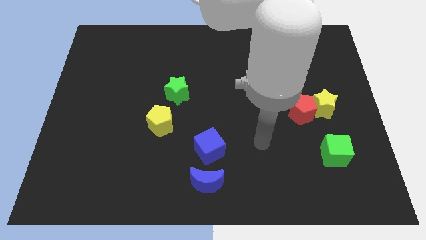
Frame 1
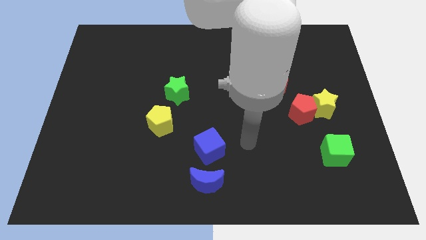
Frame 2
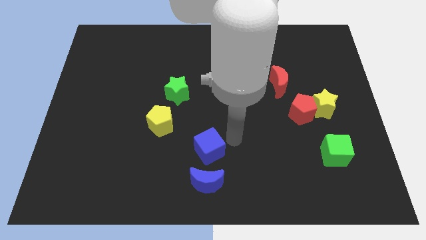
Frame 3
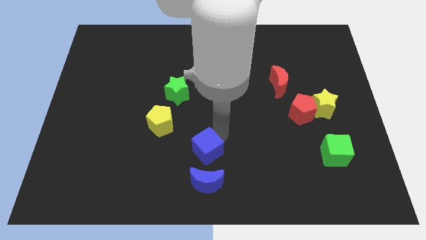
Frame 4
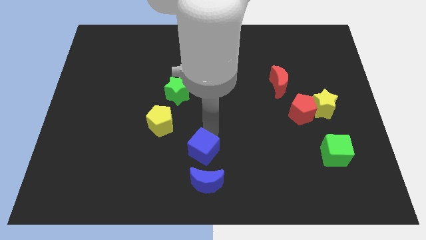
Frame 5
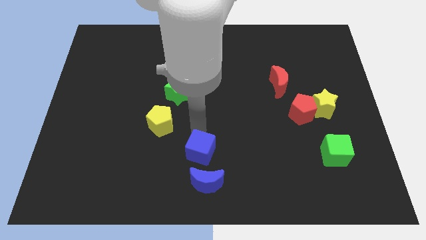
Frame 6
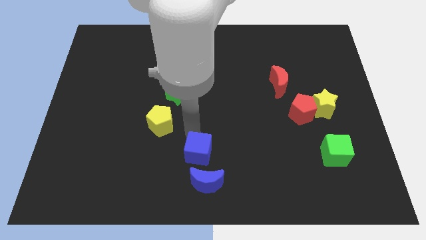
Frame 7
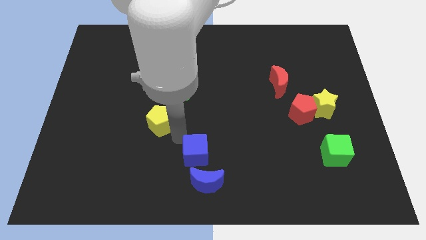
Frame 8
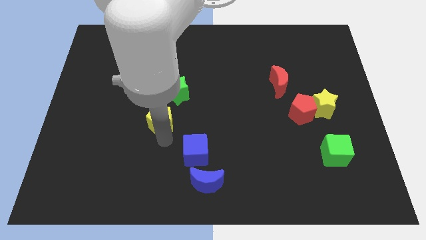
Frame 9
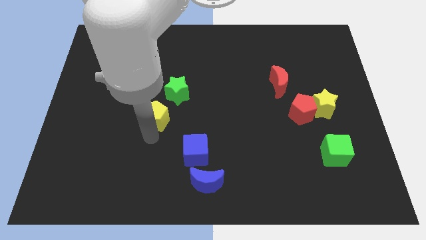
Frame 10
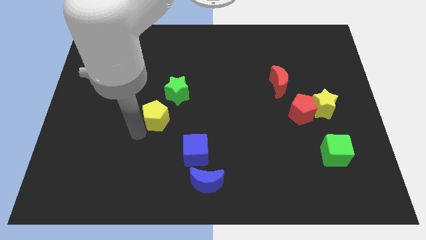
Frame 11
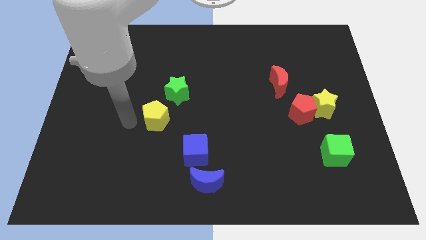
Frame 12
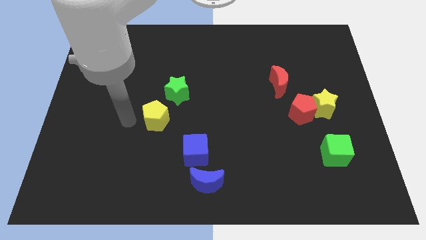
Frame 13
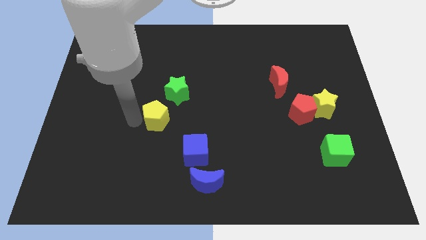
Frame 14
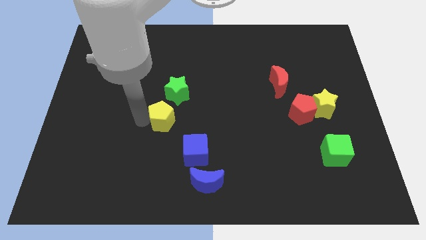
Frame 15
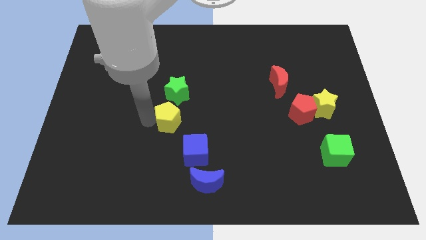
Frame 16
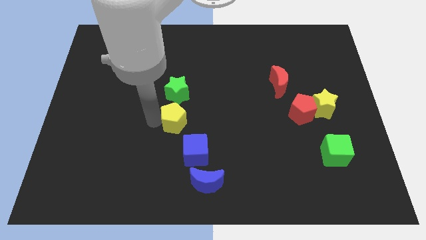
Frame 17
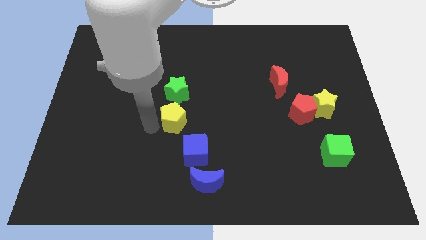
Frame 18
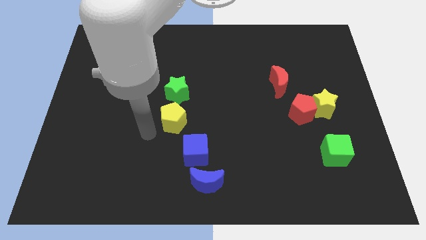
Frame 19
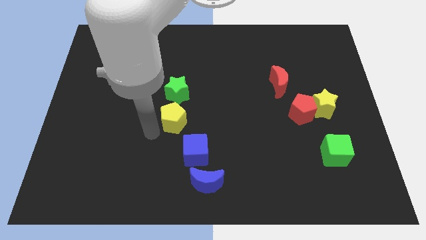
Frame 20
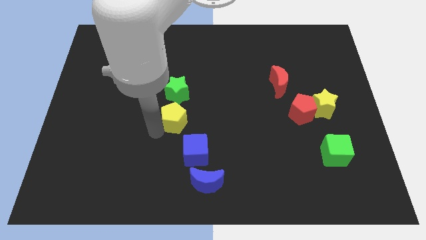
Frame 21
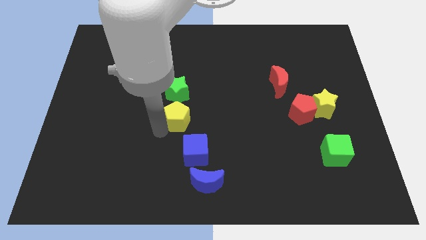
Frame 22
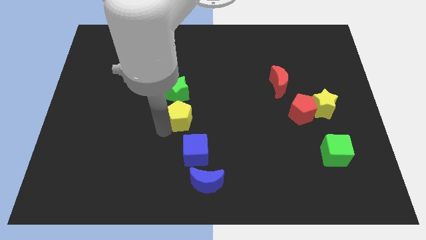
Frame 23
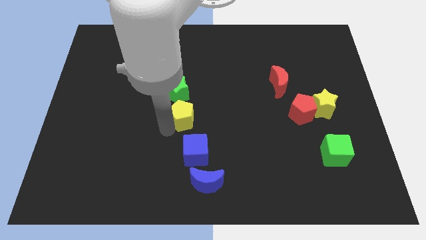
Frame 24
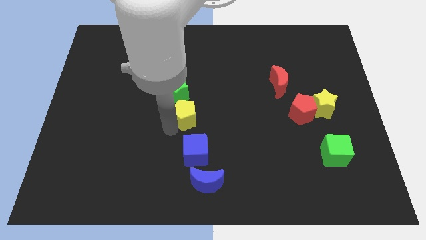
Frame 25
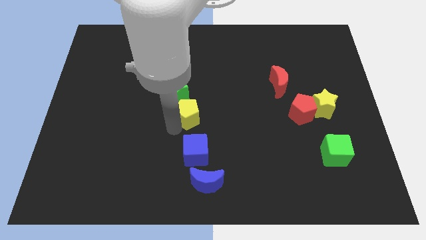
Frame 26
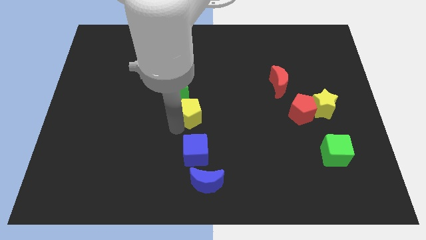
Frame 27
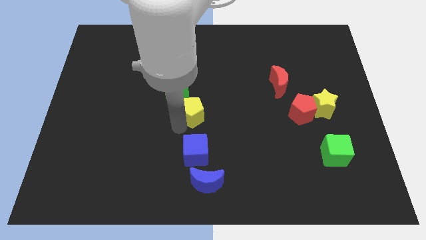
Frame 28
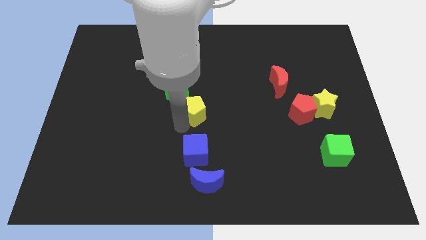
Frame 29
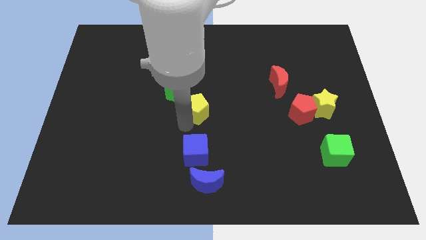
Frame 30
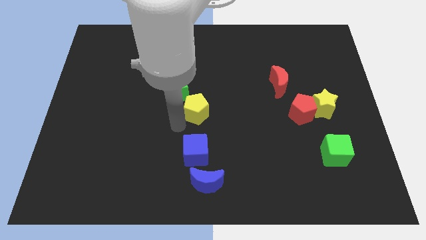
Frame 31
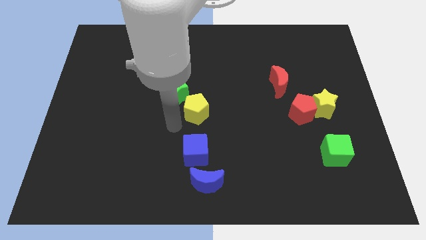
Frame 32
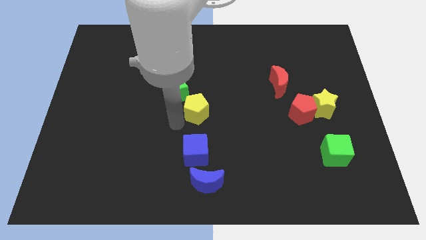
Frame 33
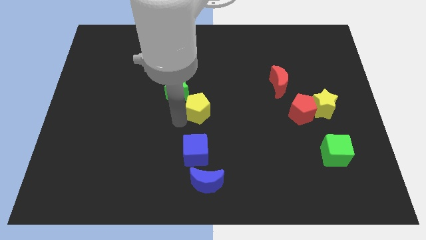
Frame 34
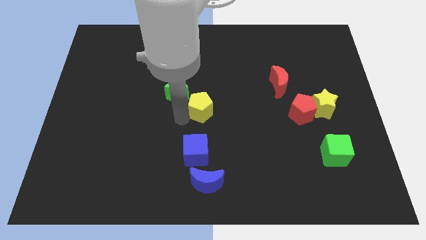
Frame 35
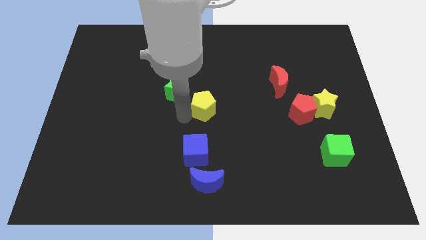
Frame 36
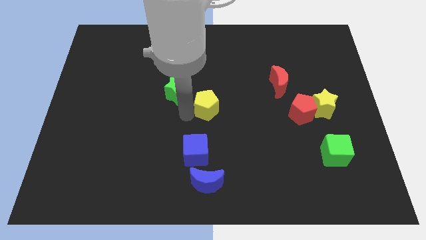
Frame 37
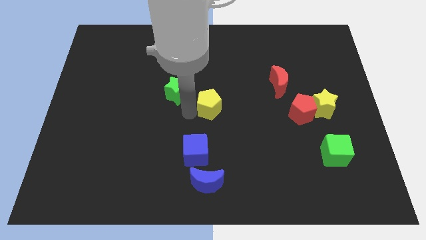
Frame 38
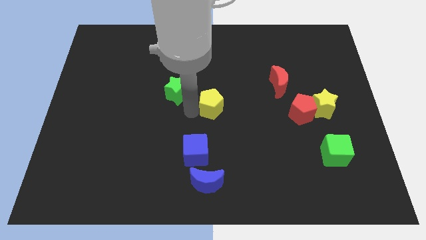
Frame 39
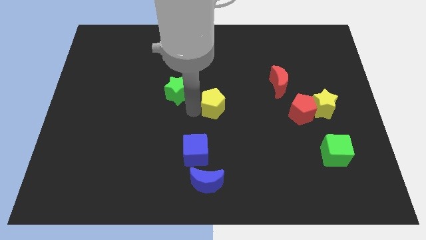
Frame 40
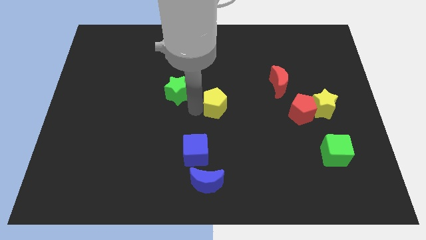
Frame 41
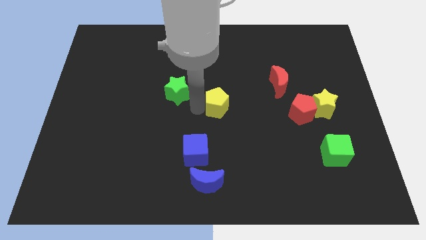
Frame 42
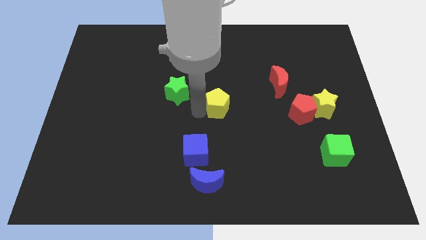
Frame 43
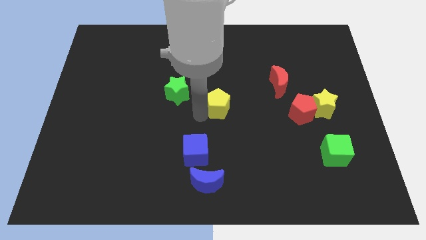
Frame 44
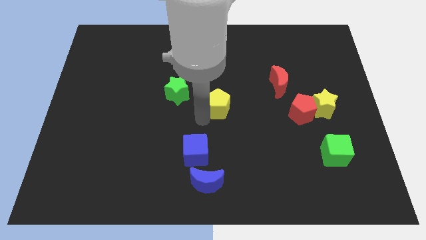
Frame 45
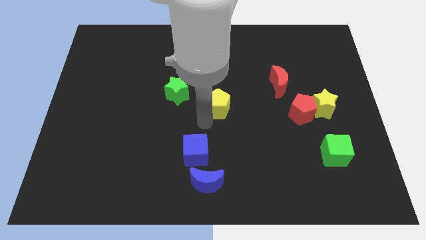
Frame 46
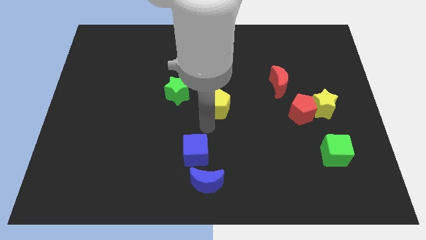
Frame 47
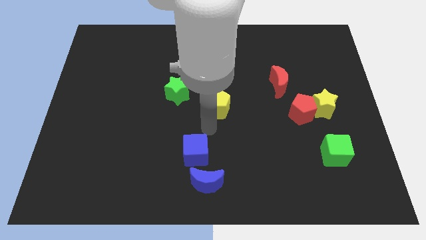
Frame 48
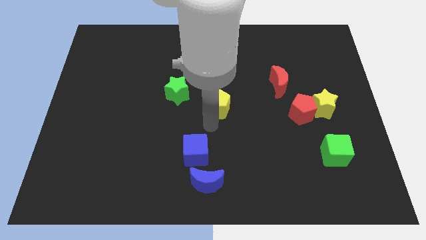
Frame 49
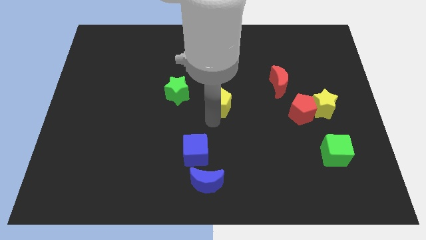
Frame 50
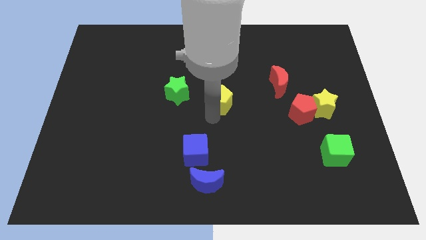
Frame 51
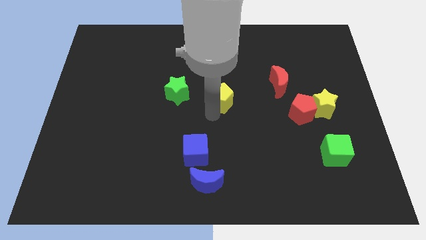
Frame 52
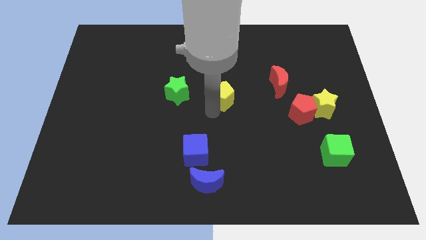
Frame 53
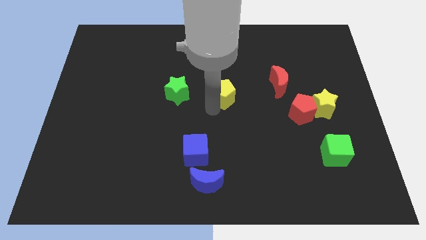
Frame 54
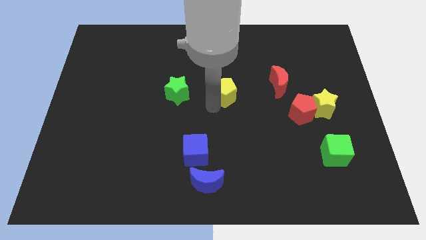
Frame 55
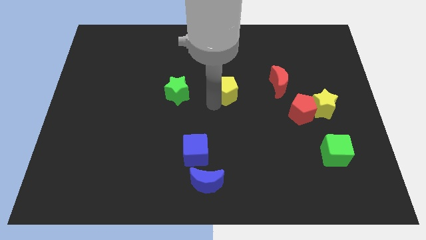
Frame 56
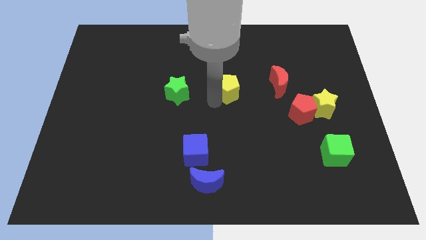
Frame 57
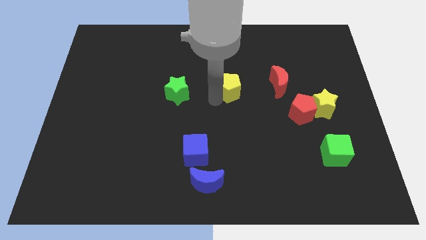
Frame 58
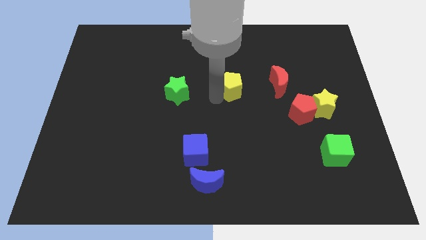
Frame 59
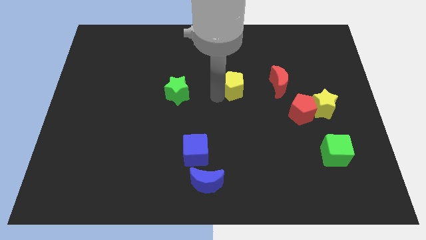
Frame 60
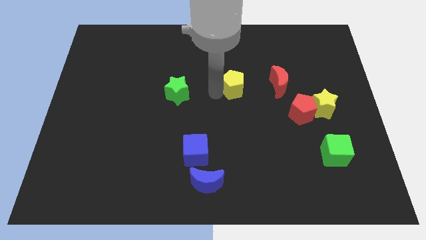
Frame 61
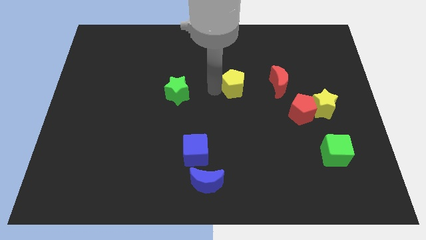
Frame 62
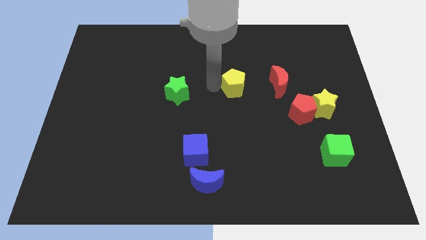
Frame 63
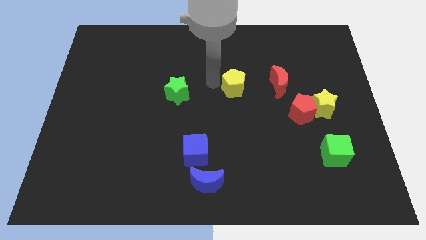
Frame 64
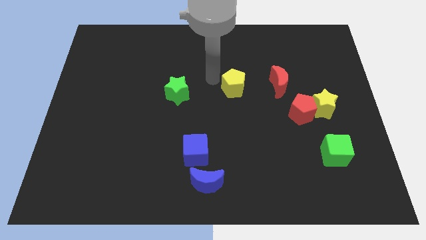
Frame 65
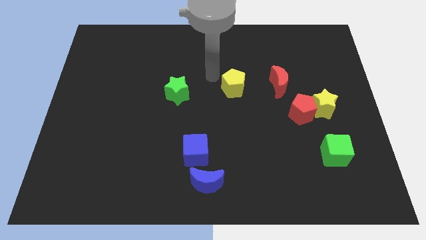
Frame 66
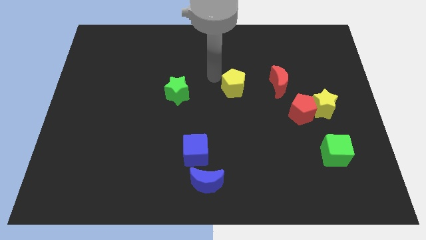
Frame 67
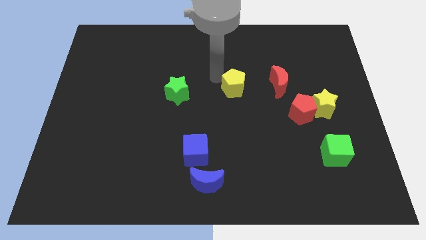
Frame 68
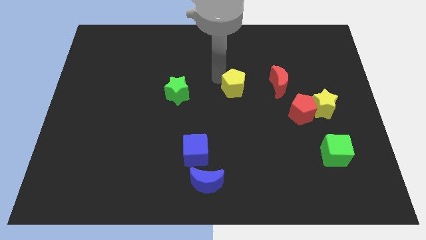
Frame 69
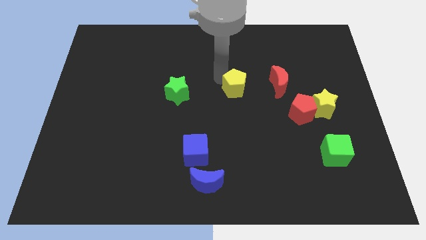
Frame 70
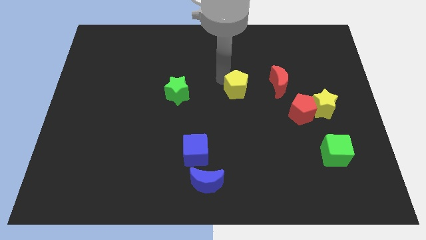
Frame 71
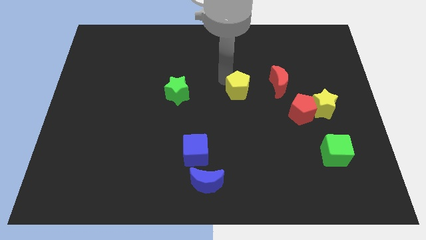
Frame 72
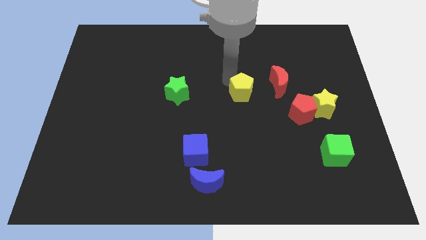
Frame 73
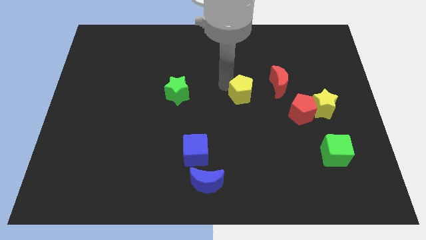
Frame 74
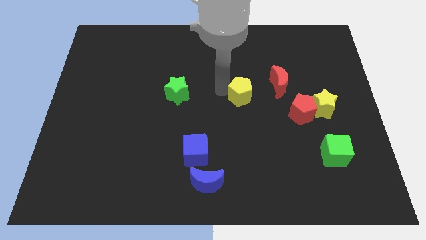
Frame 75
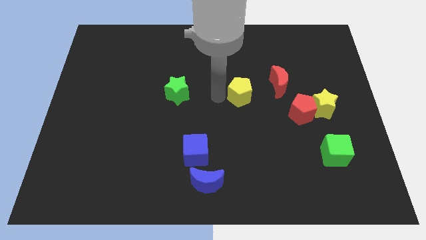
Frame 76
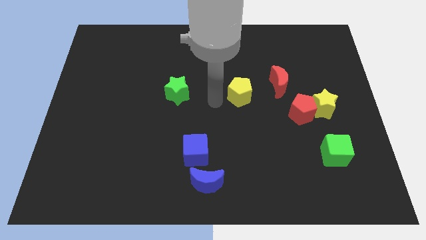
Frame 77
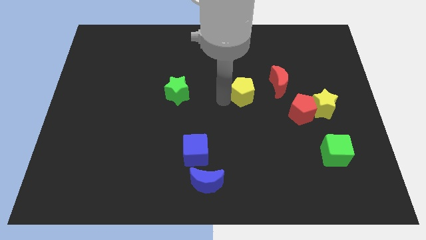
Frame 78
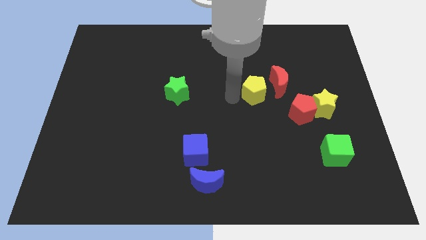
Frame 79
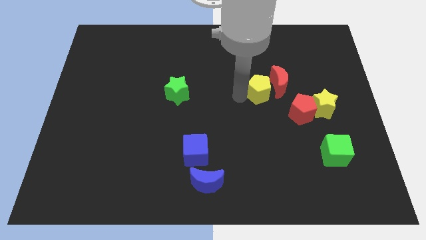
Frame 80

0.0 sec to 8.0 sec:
put the yellow pentagon close to the red moon
